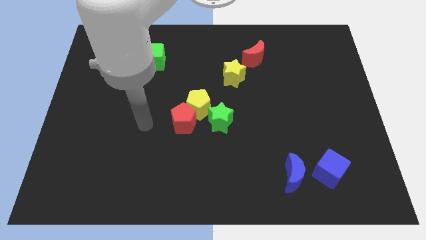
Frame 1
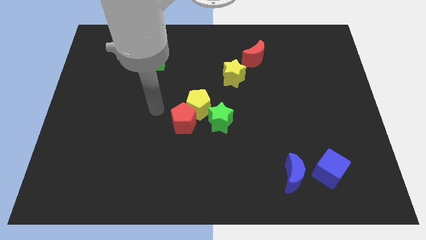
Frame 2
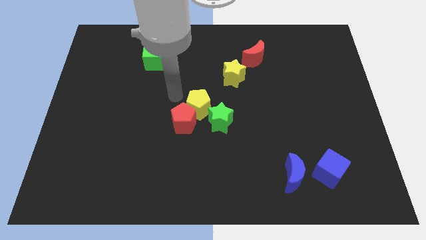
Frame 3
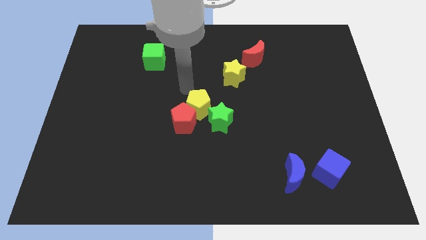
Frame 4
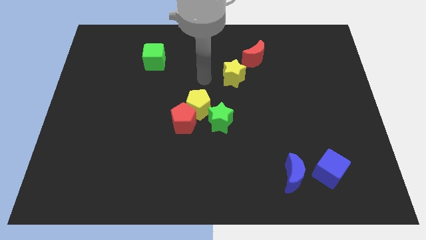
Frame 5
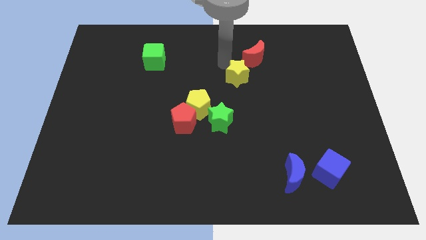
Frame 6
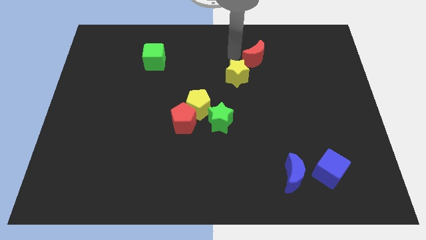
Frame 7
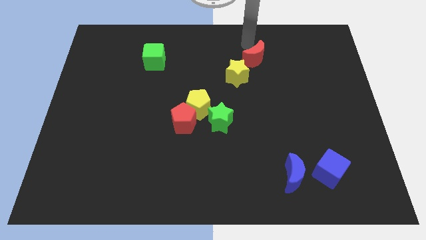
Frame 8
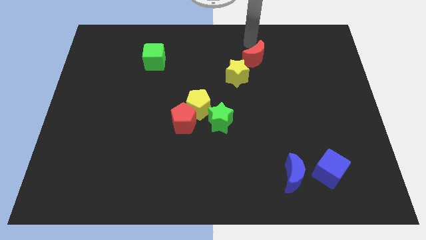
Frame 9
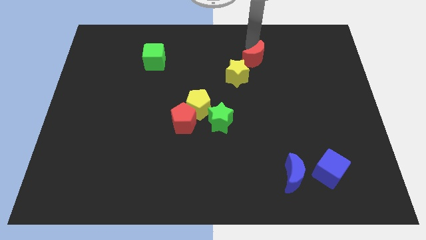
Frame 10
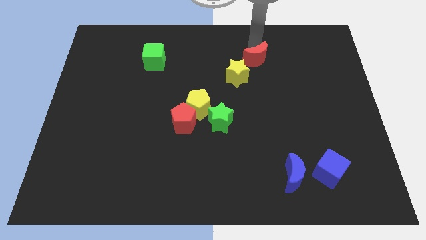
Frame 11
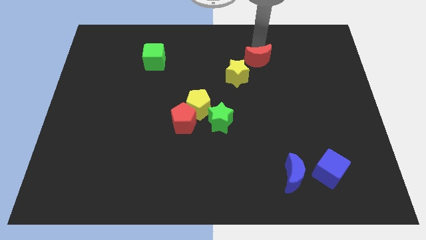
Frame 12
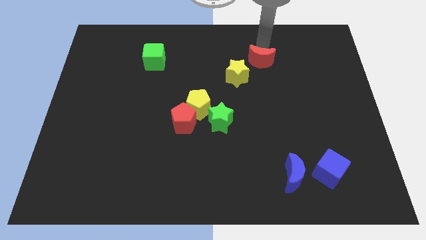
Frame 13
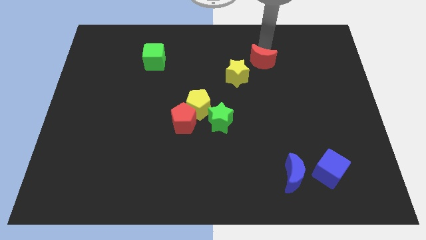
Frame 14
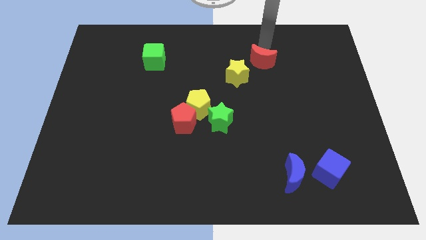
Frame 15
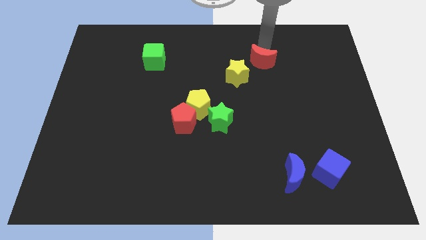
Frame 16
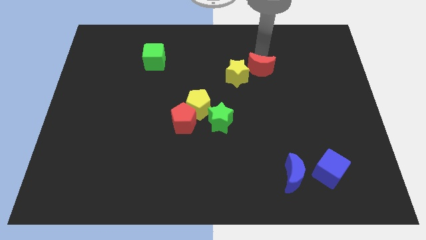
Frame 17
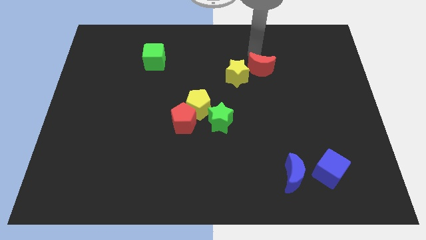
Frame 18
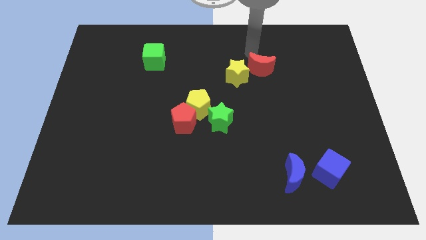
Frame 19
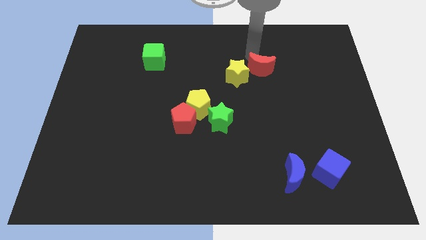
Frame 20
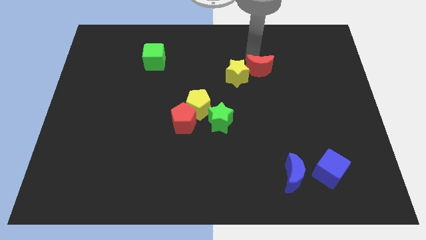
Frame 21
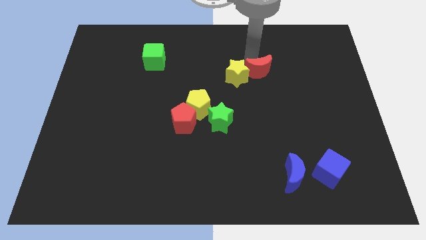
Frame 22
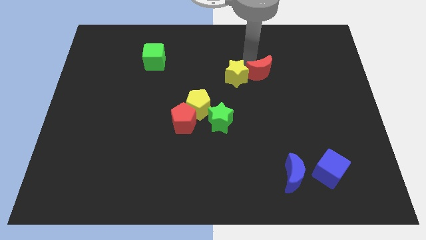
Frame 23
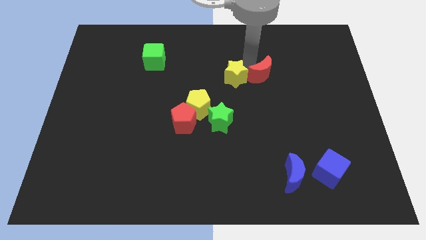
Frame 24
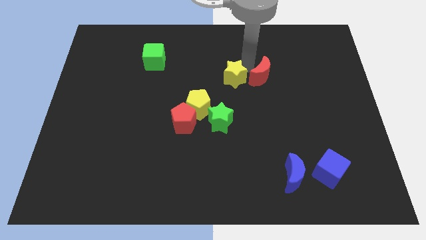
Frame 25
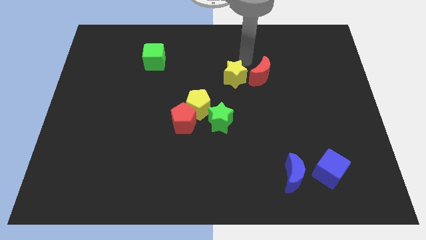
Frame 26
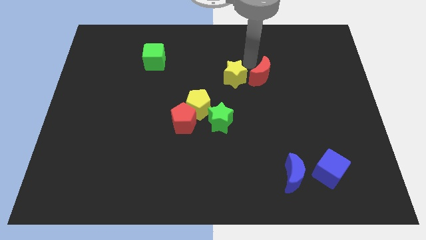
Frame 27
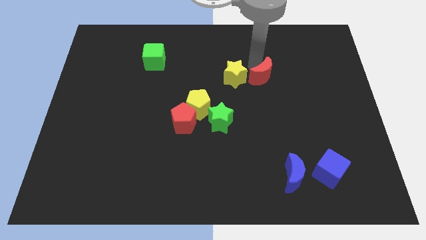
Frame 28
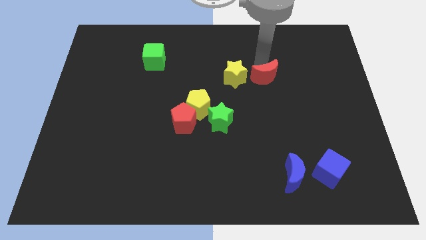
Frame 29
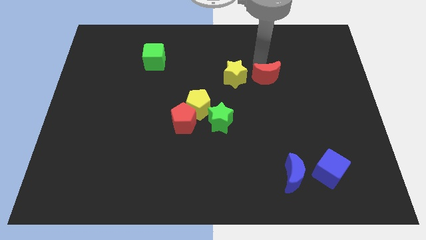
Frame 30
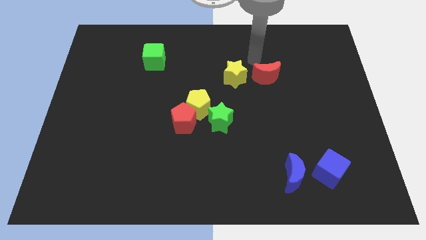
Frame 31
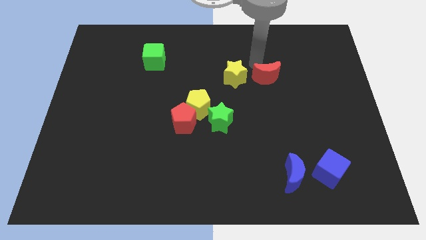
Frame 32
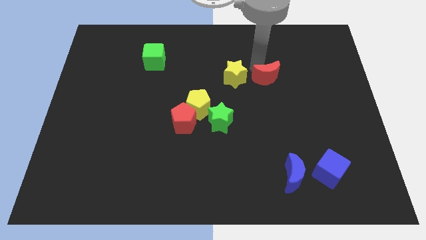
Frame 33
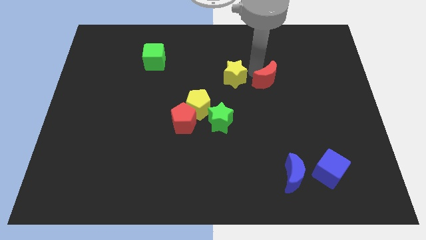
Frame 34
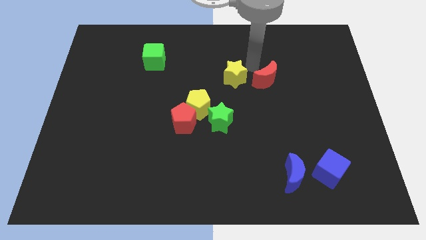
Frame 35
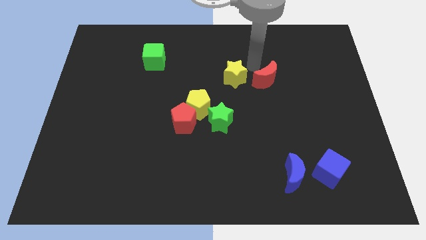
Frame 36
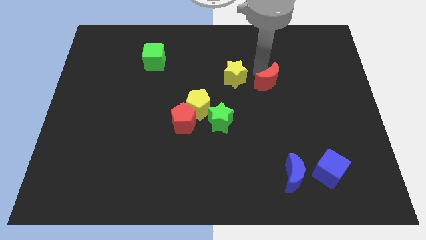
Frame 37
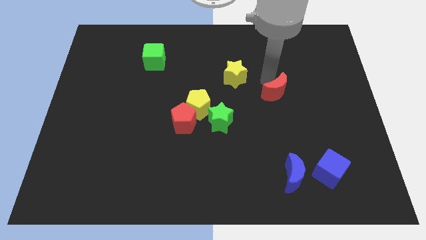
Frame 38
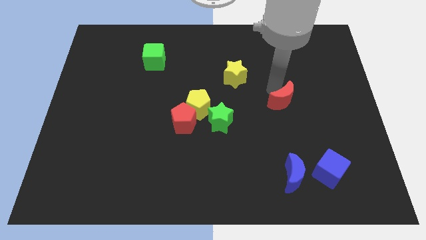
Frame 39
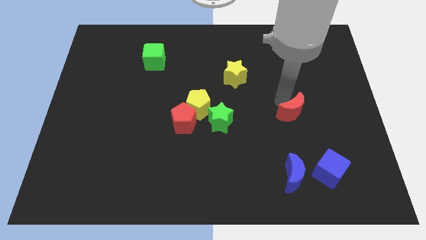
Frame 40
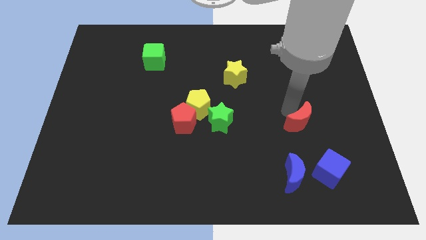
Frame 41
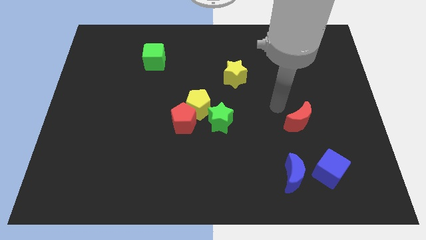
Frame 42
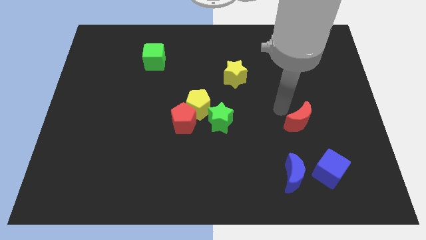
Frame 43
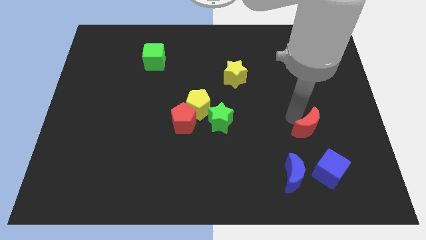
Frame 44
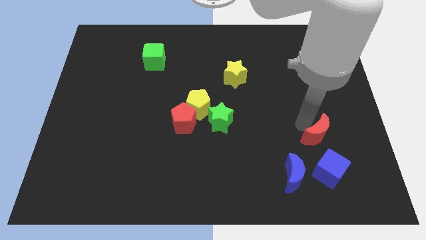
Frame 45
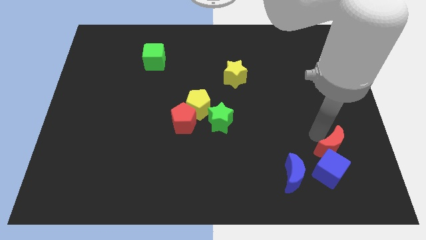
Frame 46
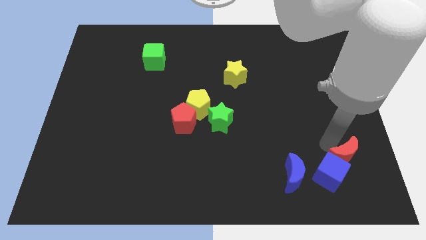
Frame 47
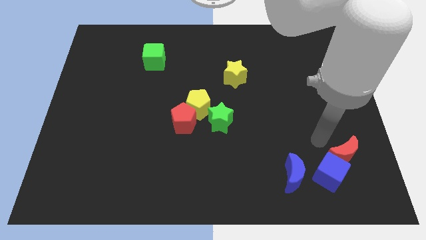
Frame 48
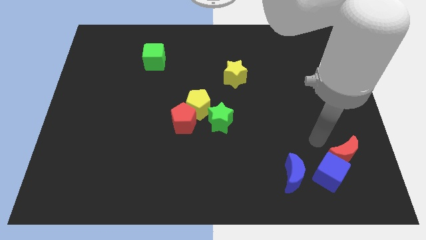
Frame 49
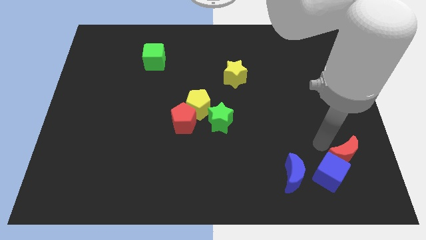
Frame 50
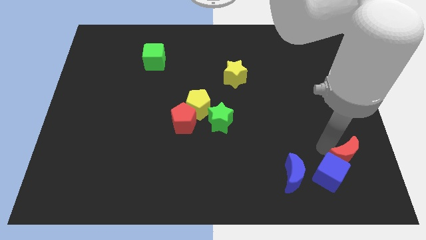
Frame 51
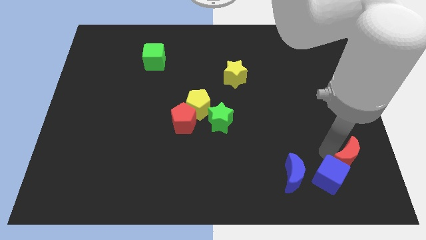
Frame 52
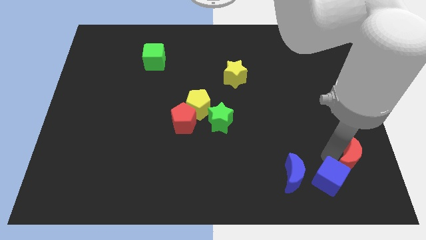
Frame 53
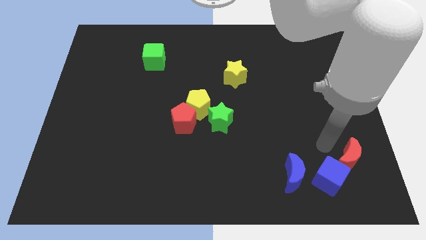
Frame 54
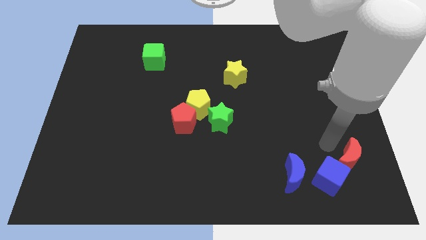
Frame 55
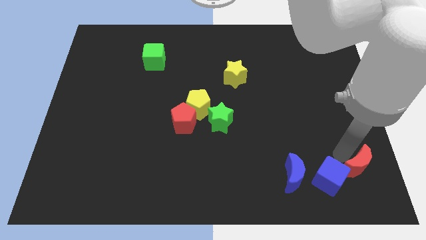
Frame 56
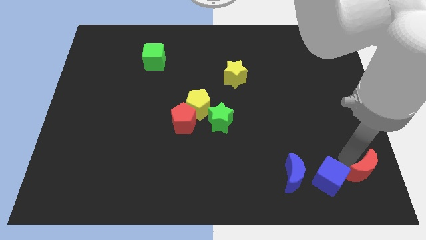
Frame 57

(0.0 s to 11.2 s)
move the red moon to the lower right corner
